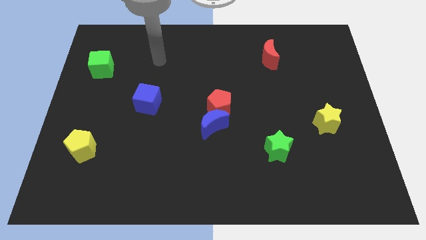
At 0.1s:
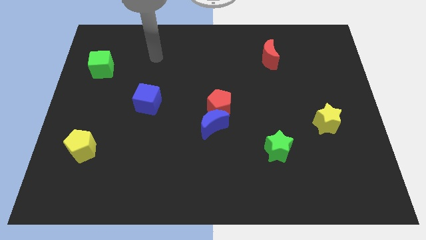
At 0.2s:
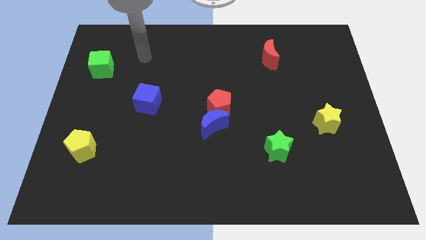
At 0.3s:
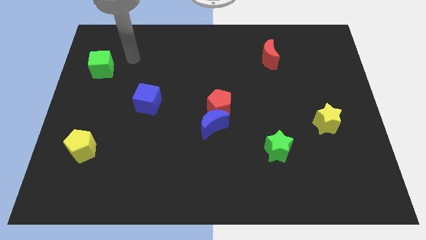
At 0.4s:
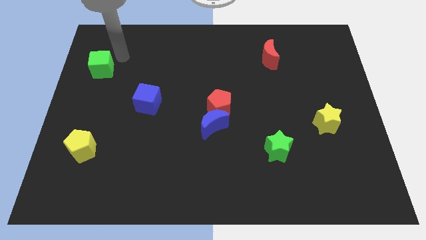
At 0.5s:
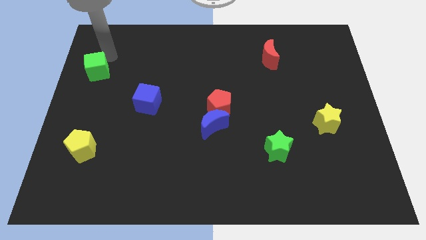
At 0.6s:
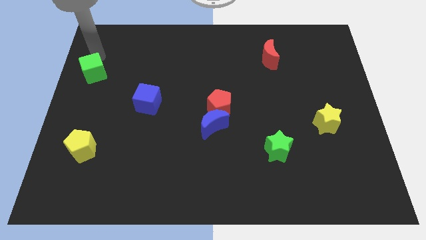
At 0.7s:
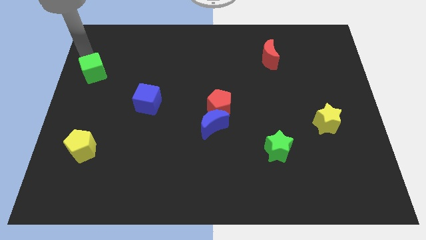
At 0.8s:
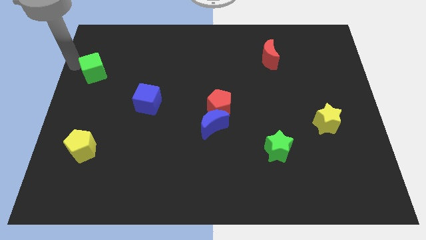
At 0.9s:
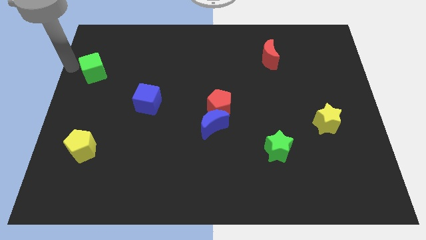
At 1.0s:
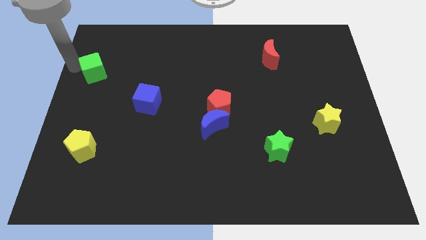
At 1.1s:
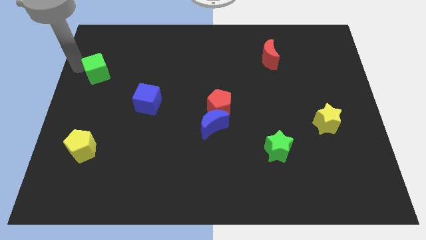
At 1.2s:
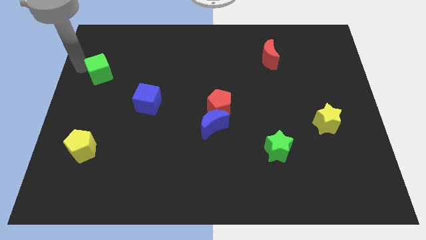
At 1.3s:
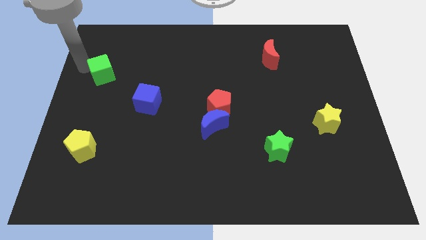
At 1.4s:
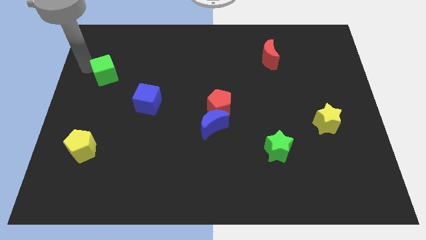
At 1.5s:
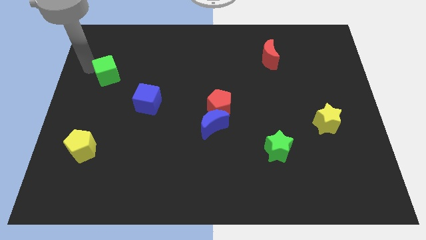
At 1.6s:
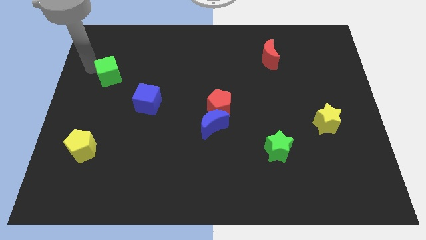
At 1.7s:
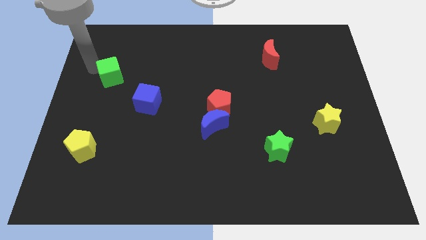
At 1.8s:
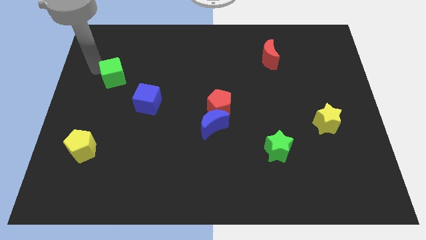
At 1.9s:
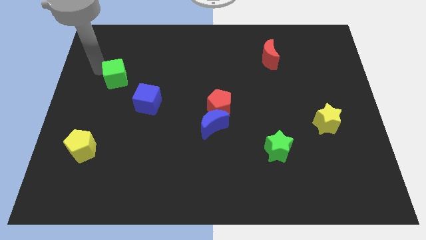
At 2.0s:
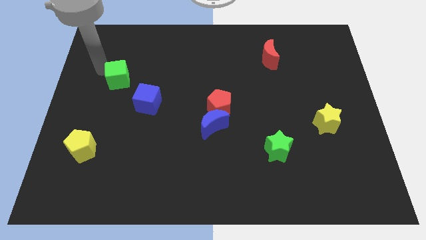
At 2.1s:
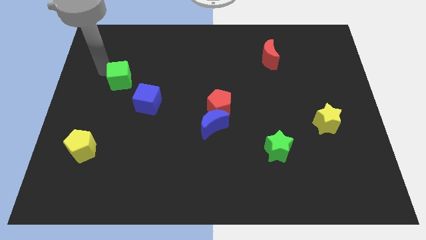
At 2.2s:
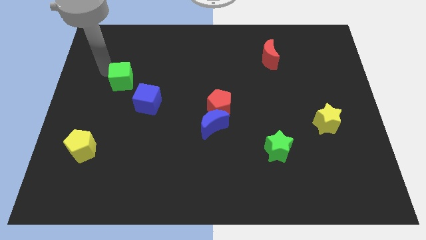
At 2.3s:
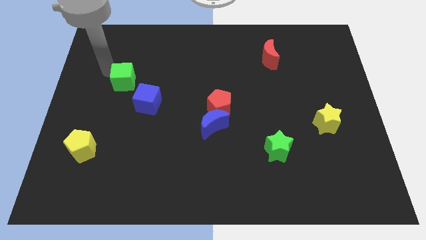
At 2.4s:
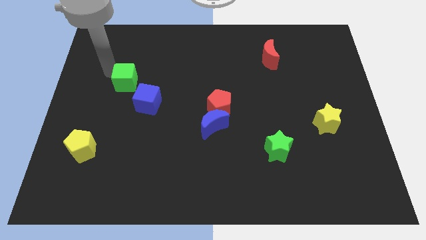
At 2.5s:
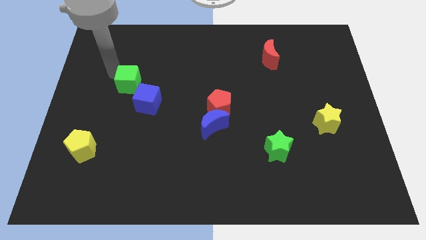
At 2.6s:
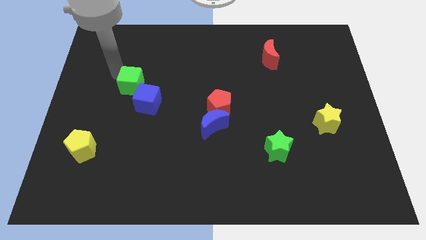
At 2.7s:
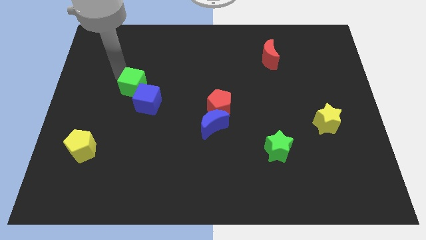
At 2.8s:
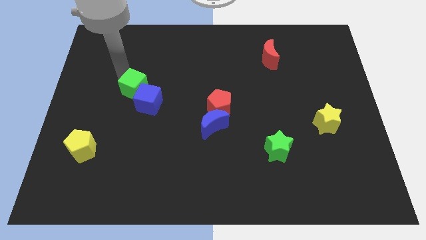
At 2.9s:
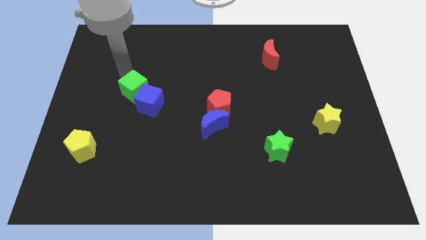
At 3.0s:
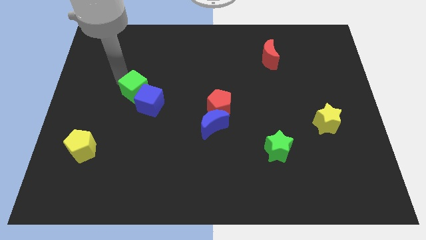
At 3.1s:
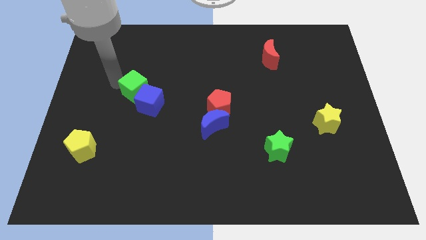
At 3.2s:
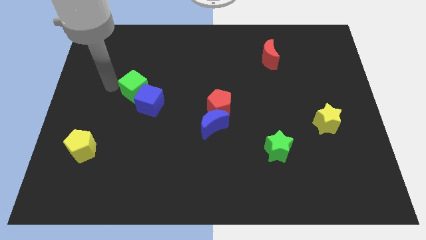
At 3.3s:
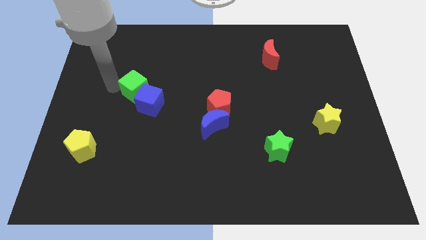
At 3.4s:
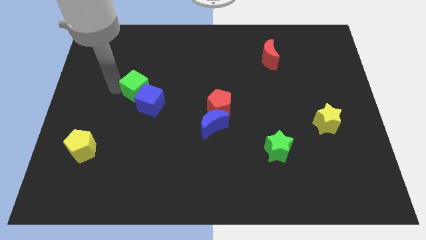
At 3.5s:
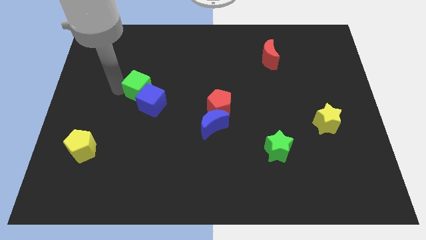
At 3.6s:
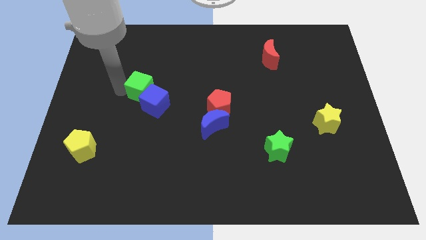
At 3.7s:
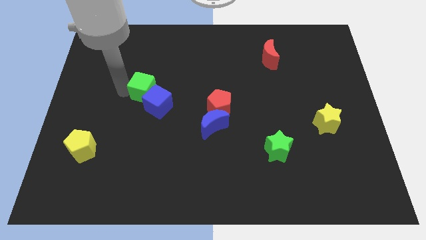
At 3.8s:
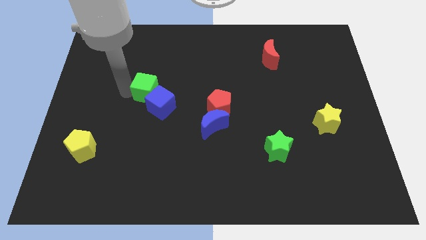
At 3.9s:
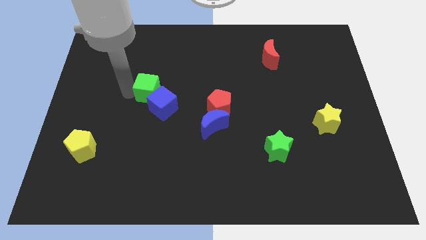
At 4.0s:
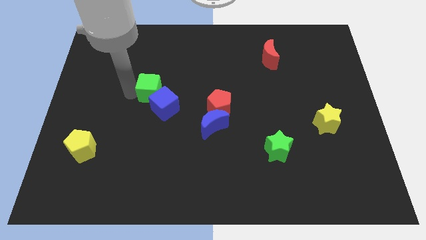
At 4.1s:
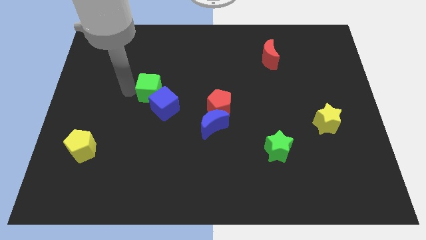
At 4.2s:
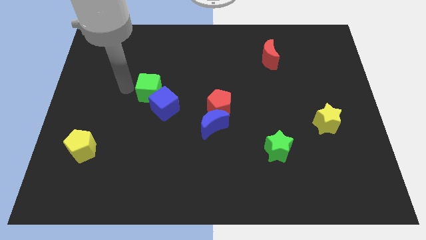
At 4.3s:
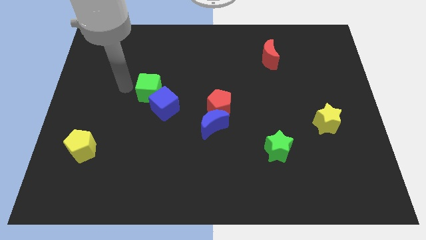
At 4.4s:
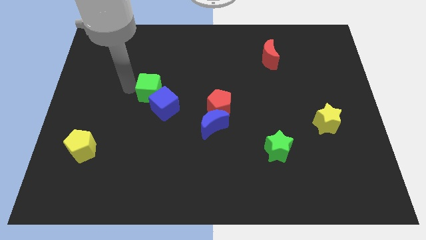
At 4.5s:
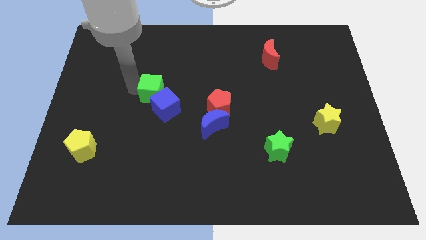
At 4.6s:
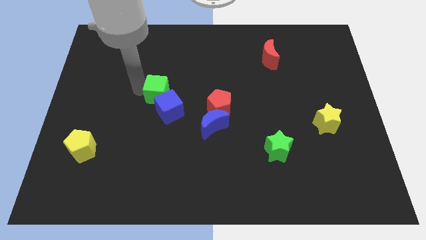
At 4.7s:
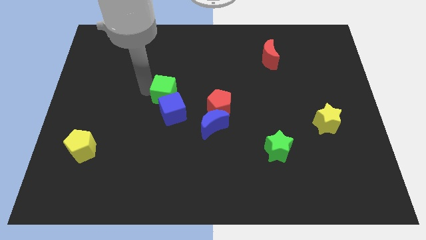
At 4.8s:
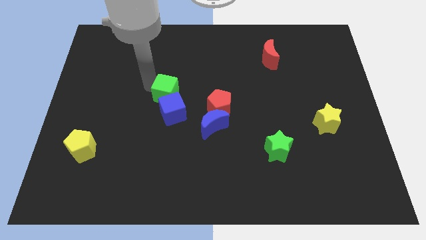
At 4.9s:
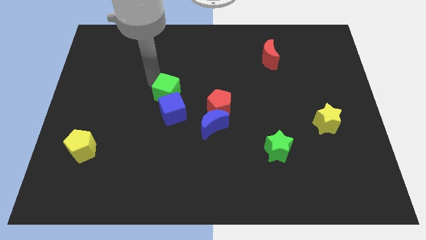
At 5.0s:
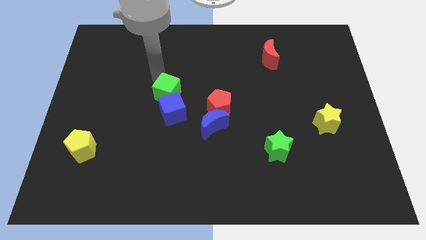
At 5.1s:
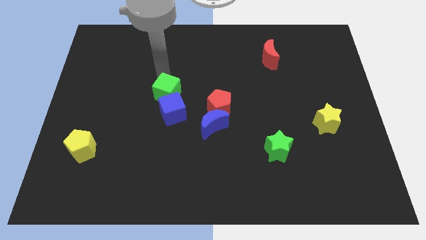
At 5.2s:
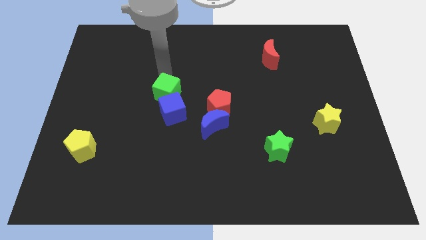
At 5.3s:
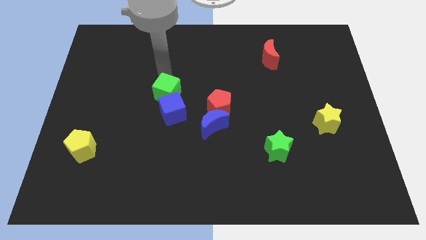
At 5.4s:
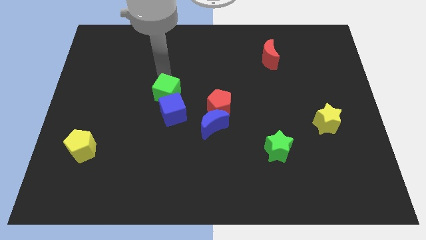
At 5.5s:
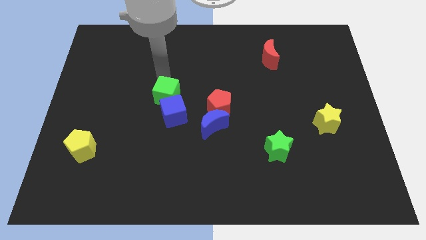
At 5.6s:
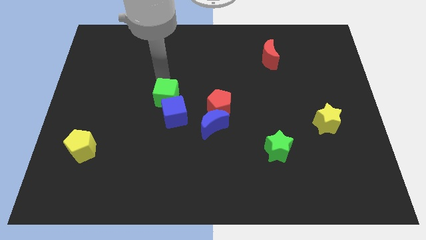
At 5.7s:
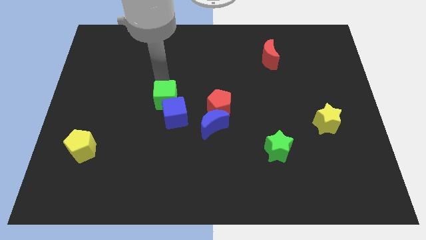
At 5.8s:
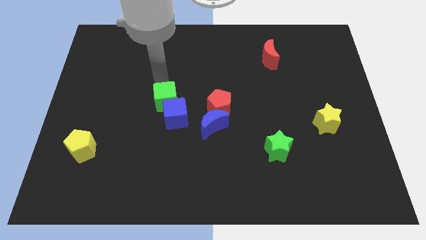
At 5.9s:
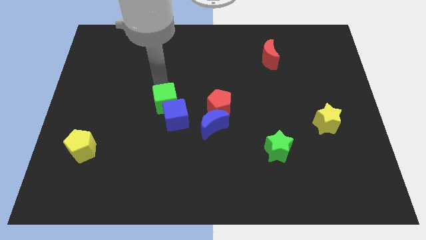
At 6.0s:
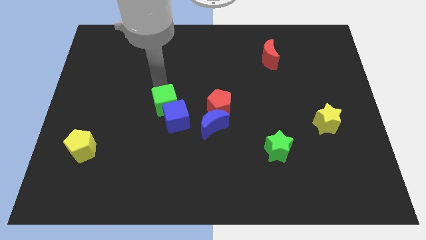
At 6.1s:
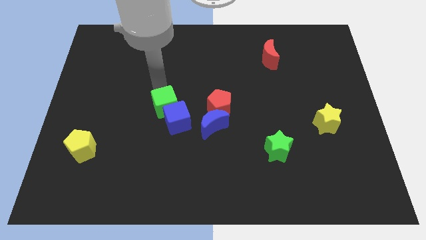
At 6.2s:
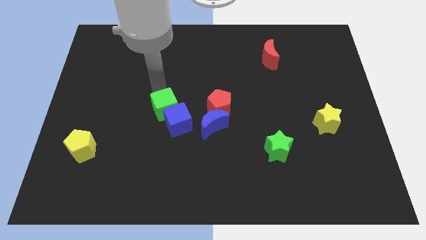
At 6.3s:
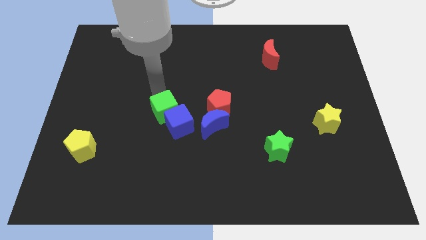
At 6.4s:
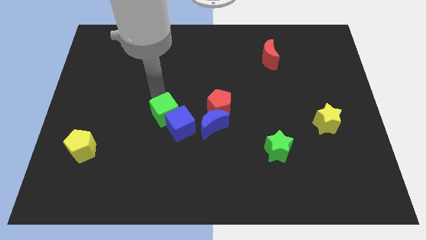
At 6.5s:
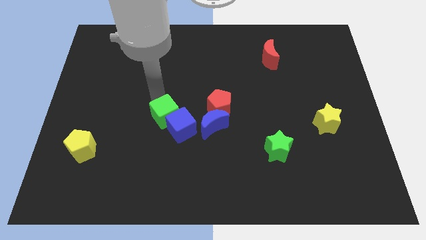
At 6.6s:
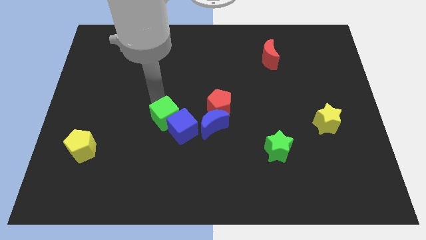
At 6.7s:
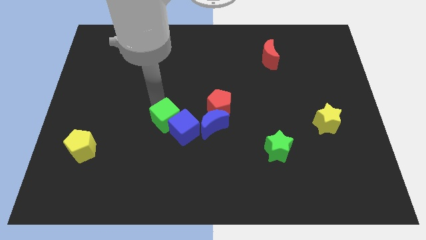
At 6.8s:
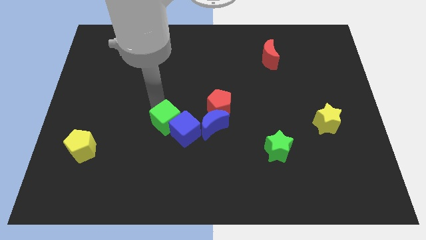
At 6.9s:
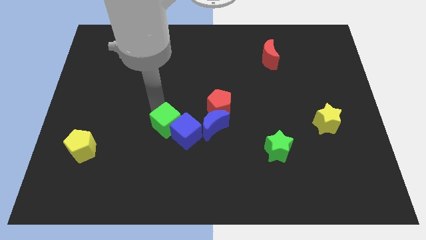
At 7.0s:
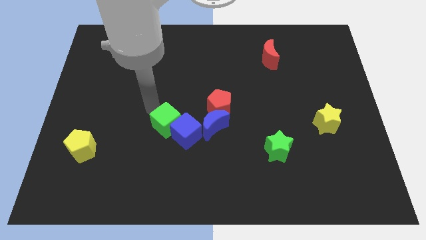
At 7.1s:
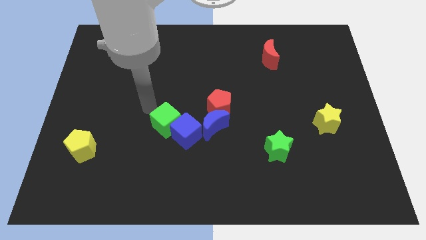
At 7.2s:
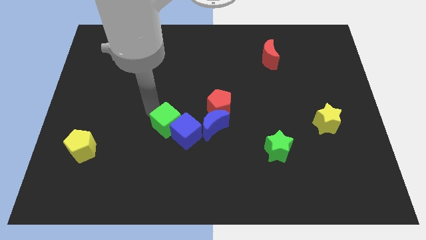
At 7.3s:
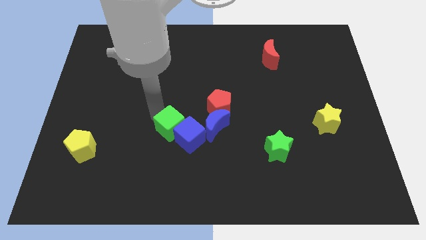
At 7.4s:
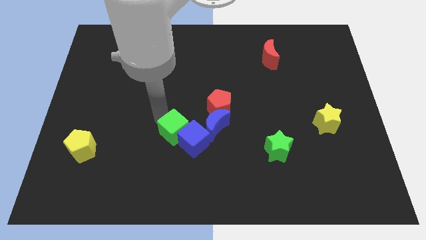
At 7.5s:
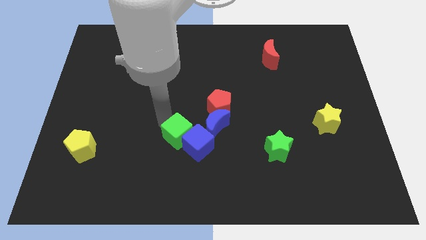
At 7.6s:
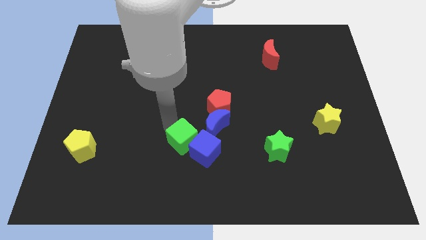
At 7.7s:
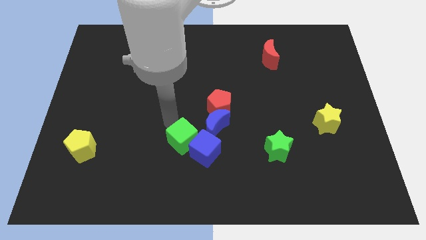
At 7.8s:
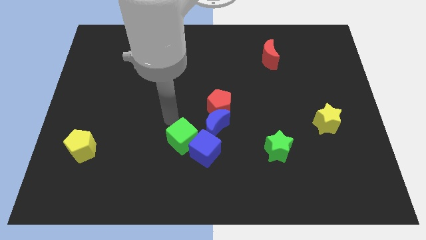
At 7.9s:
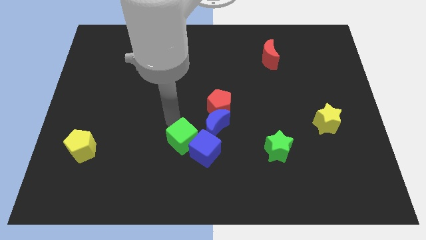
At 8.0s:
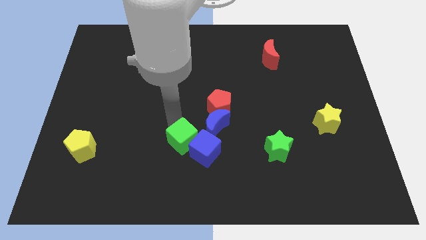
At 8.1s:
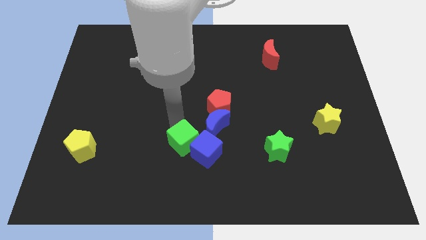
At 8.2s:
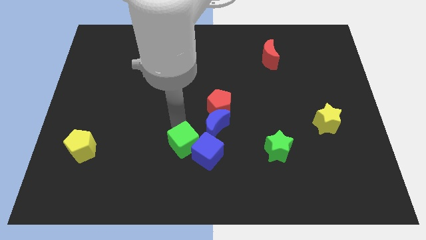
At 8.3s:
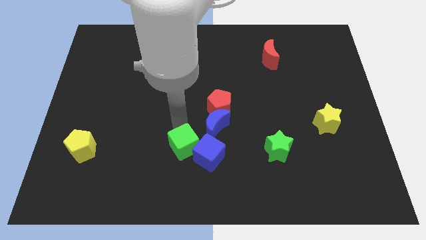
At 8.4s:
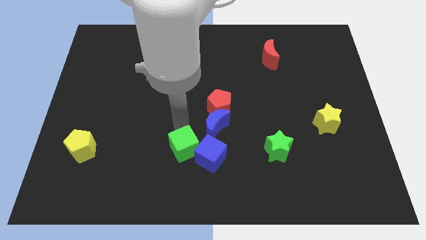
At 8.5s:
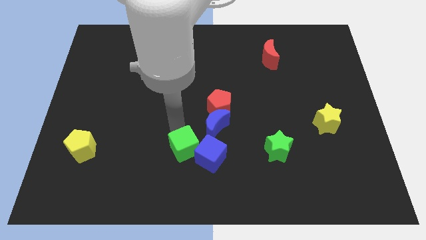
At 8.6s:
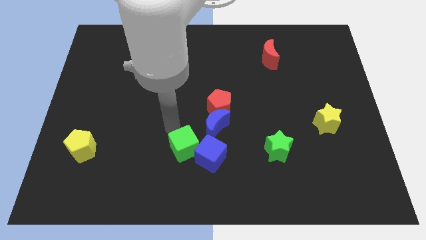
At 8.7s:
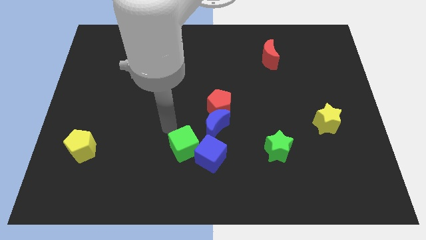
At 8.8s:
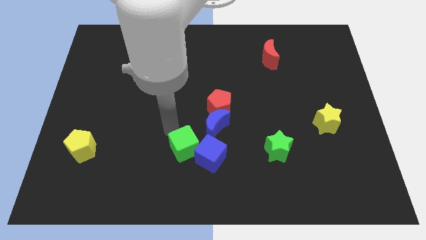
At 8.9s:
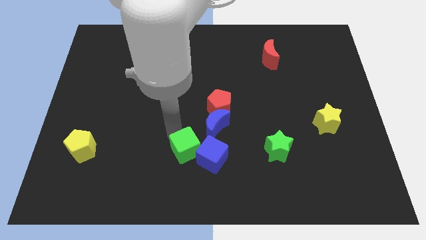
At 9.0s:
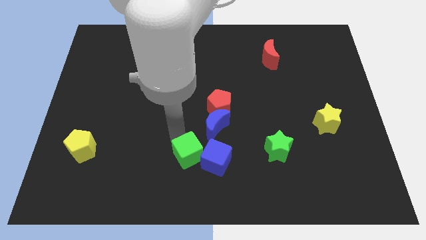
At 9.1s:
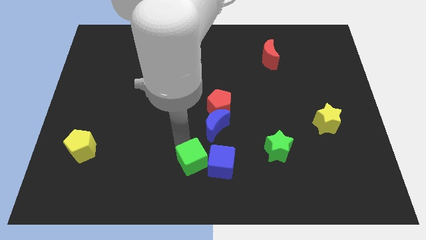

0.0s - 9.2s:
push the green cube to the bottom
